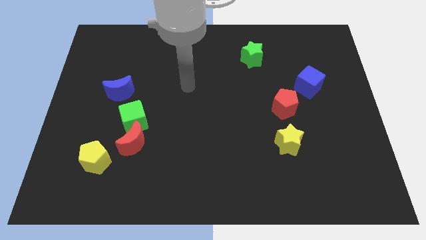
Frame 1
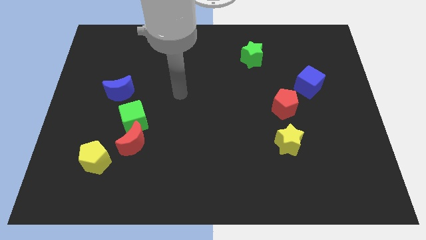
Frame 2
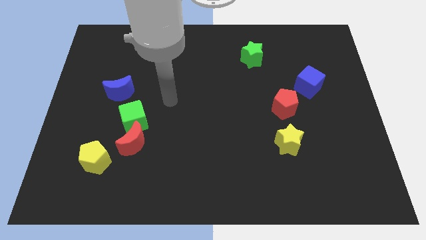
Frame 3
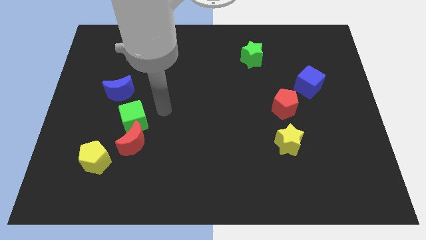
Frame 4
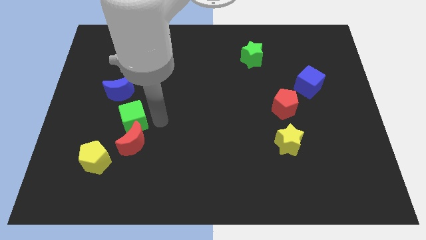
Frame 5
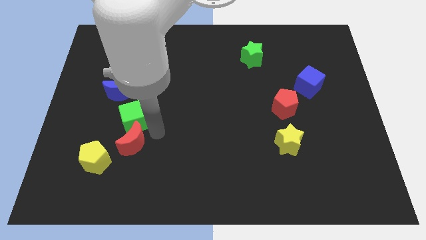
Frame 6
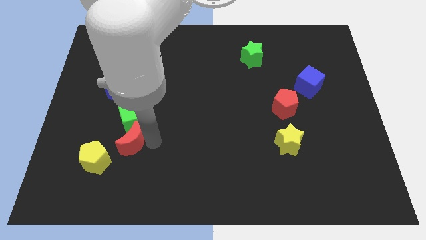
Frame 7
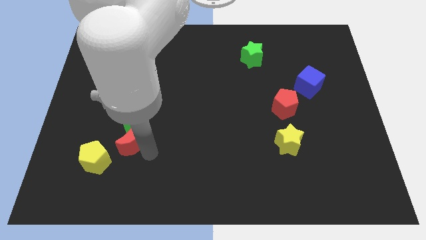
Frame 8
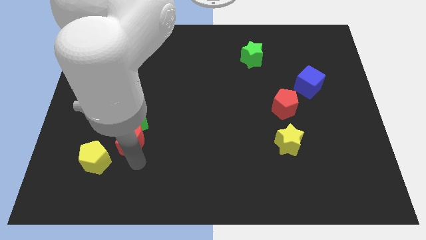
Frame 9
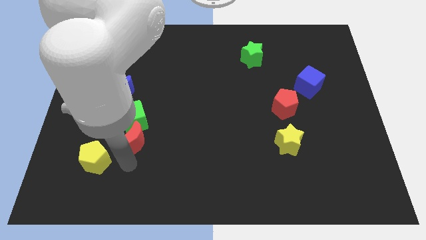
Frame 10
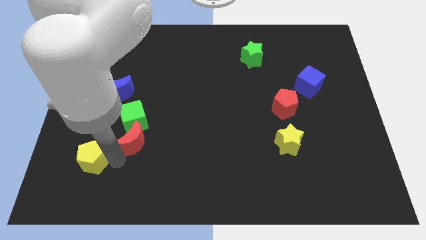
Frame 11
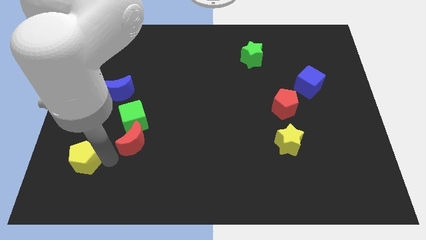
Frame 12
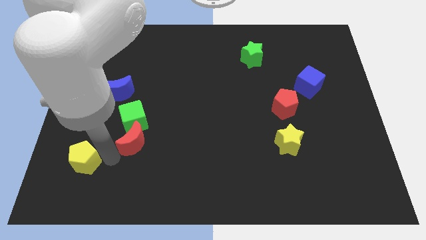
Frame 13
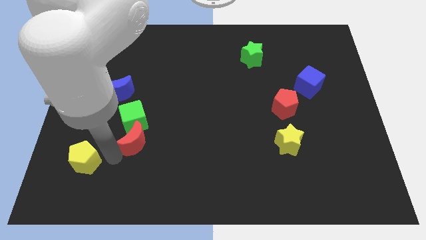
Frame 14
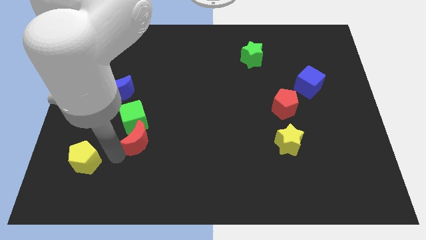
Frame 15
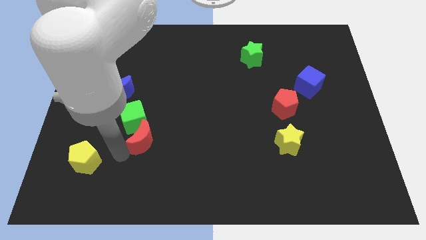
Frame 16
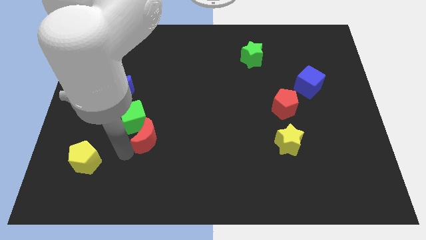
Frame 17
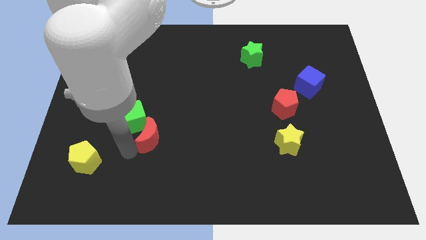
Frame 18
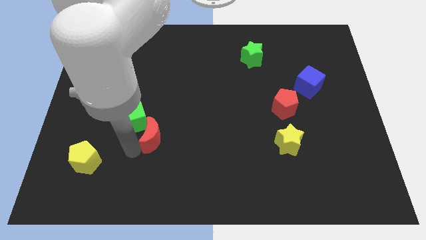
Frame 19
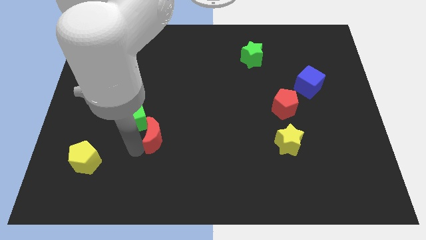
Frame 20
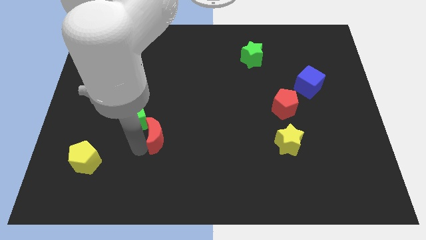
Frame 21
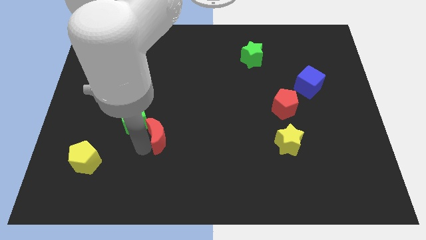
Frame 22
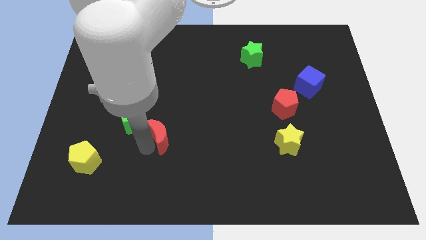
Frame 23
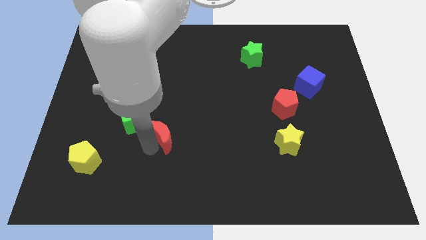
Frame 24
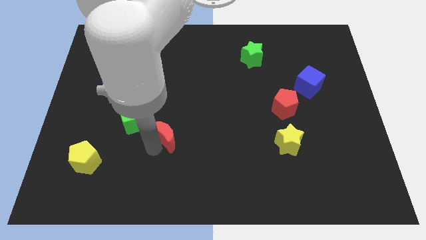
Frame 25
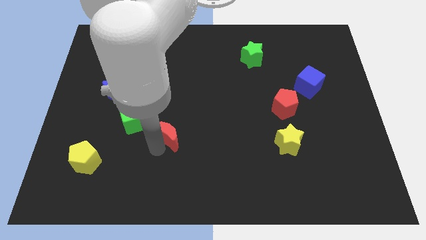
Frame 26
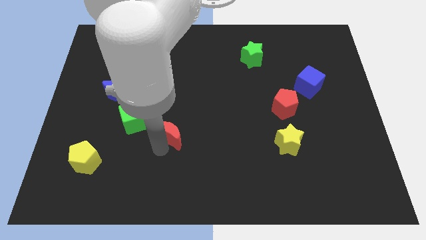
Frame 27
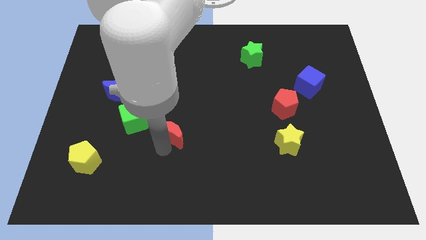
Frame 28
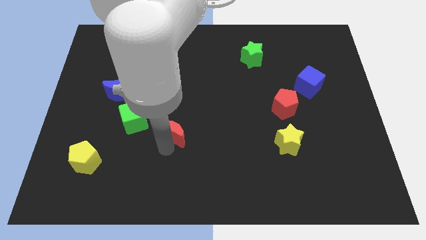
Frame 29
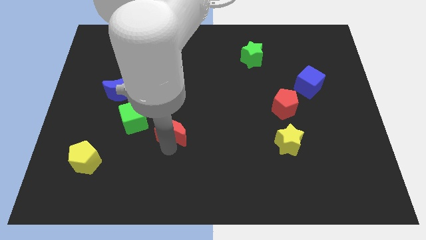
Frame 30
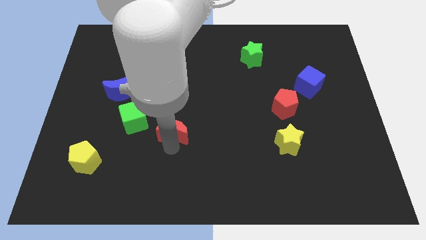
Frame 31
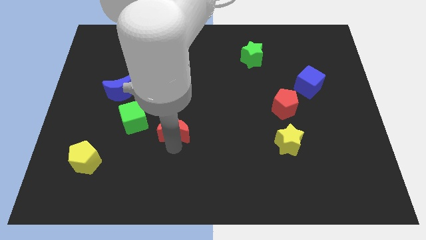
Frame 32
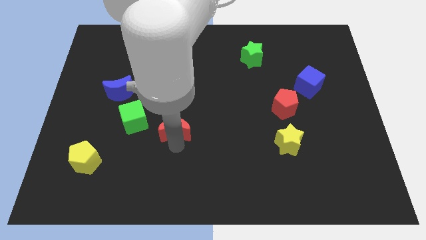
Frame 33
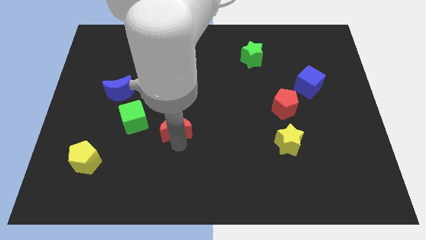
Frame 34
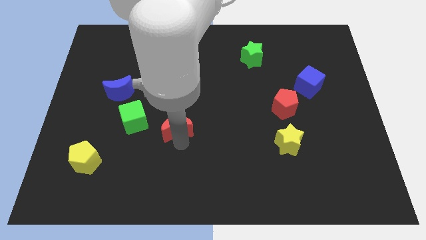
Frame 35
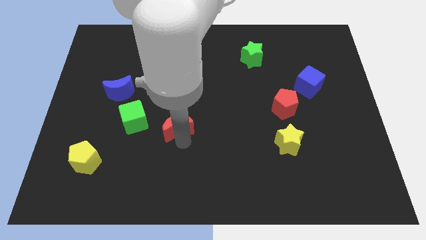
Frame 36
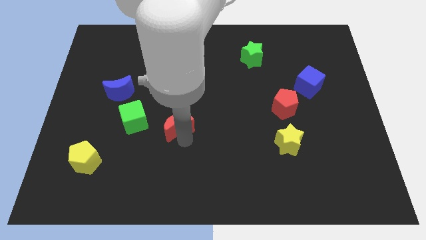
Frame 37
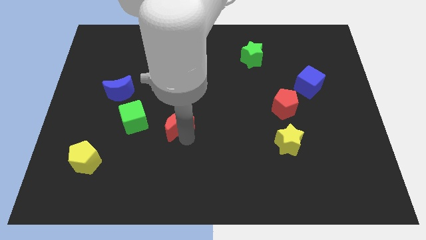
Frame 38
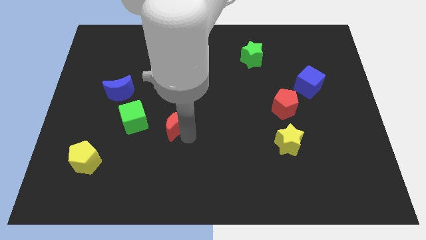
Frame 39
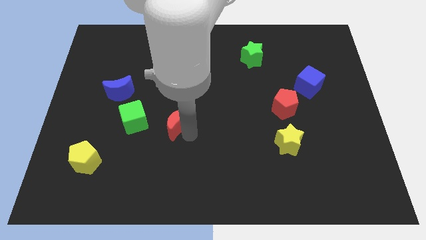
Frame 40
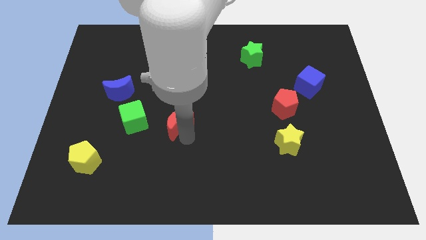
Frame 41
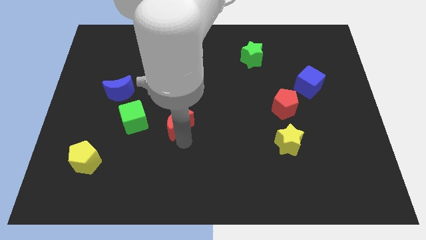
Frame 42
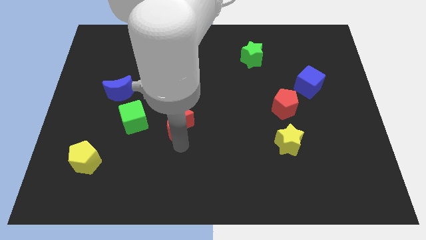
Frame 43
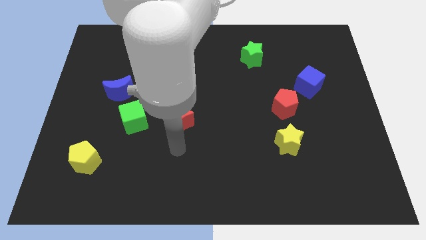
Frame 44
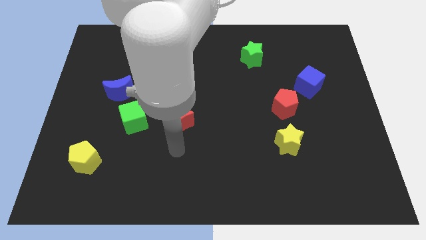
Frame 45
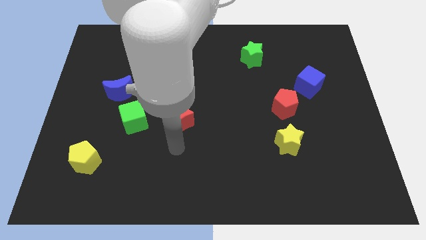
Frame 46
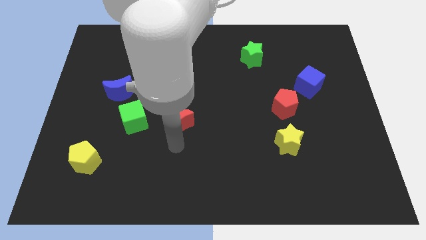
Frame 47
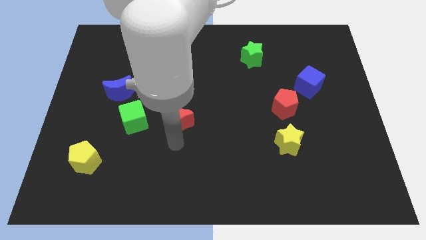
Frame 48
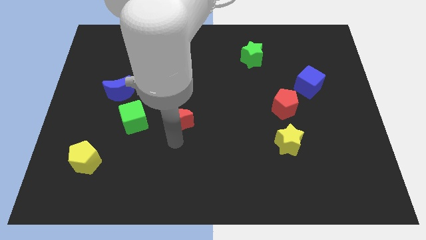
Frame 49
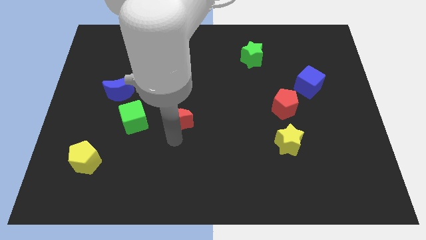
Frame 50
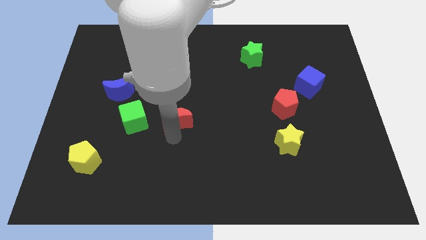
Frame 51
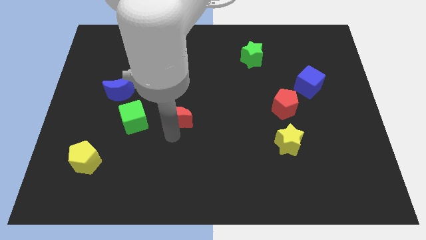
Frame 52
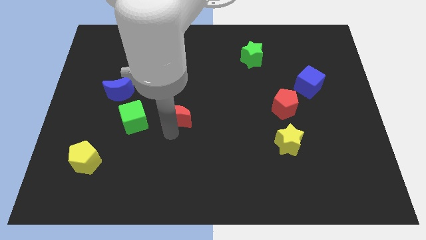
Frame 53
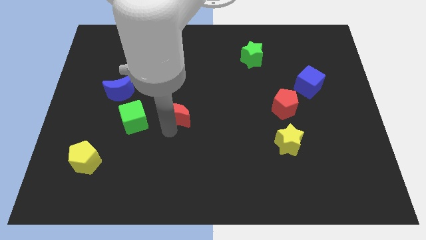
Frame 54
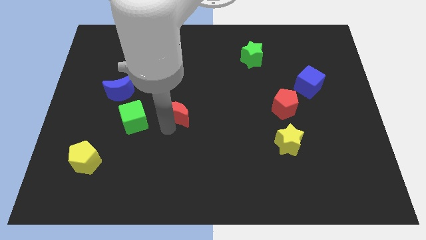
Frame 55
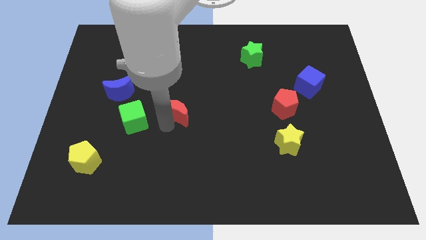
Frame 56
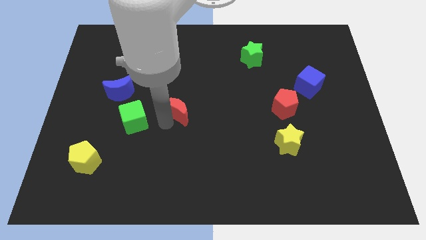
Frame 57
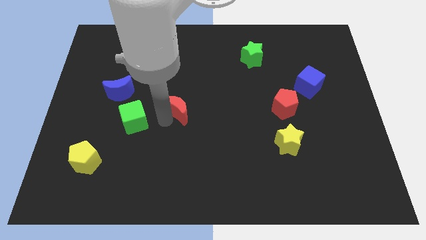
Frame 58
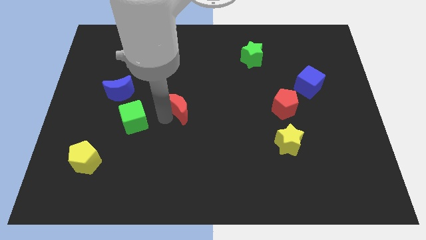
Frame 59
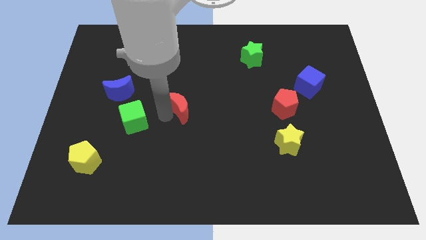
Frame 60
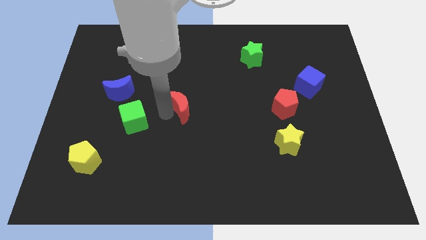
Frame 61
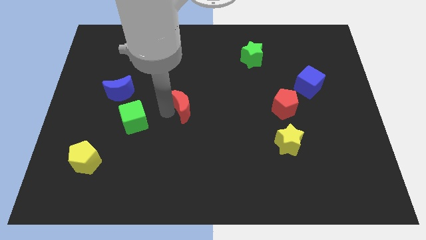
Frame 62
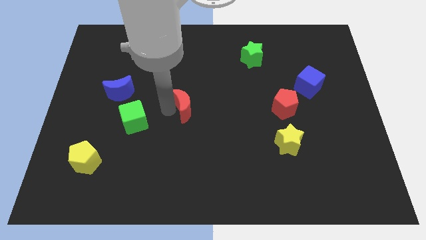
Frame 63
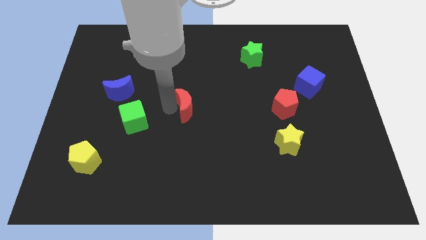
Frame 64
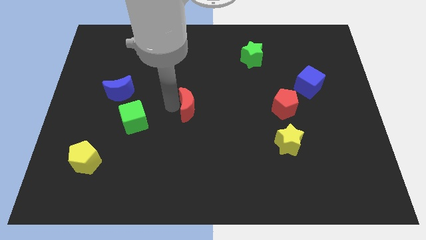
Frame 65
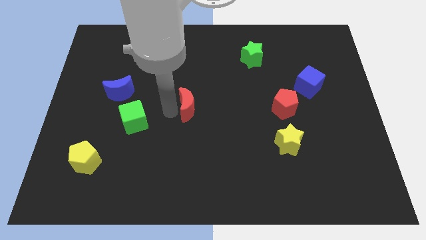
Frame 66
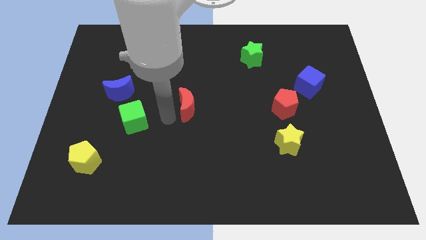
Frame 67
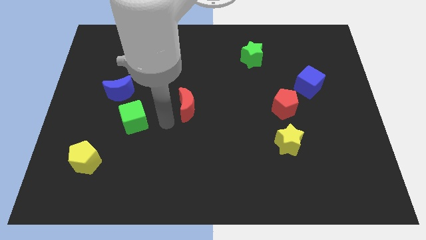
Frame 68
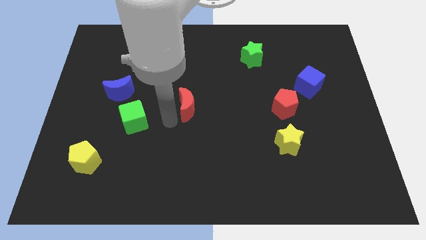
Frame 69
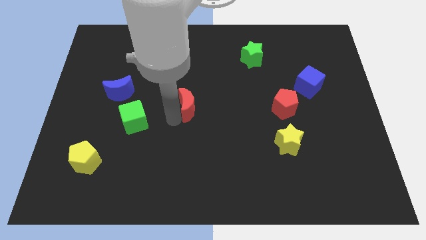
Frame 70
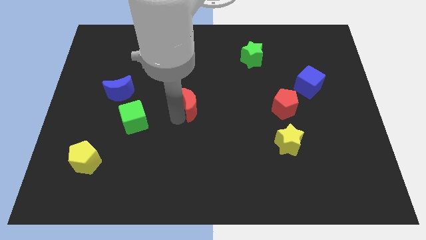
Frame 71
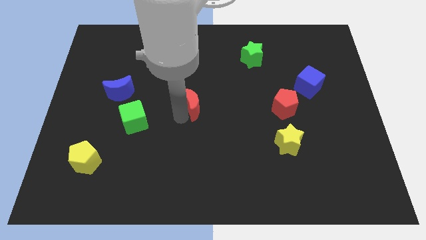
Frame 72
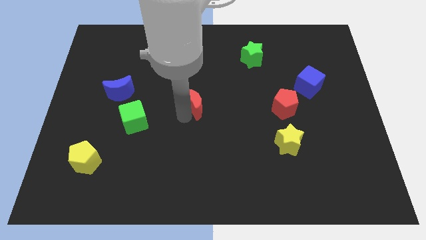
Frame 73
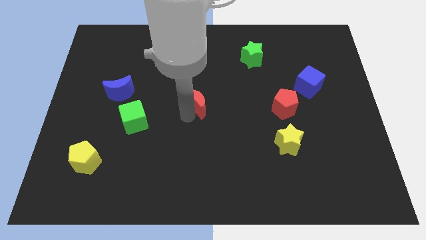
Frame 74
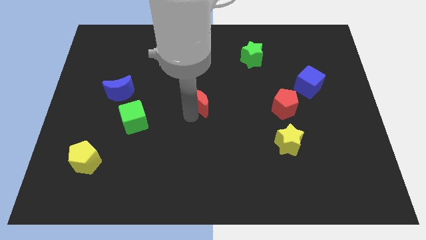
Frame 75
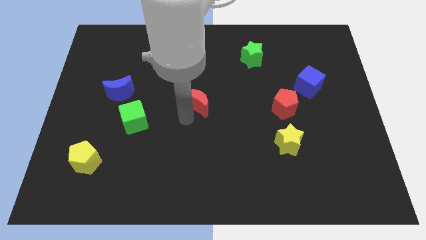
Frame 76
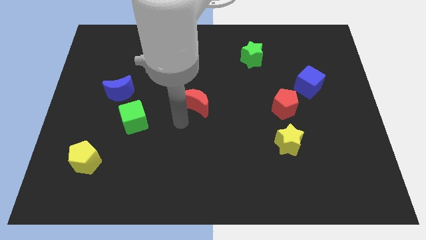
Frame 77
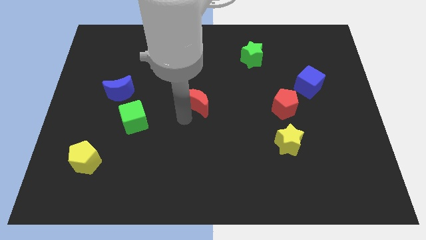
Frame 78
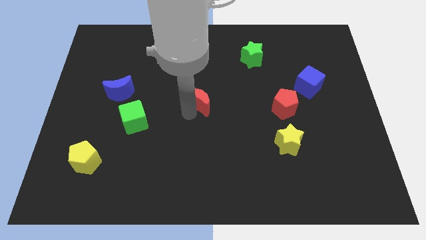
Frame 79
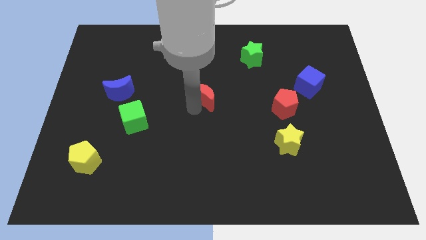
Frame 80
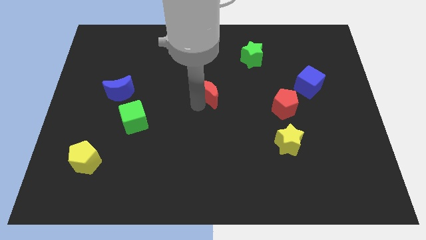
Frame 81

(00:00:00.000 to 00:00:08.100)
push the red moon diagonally upwards and to the right

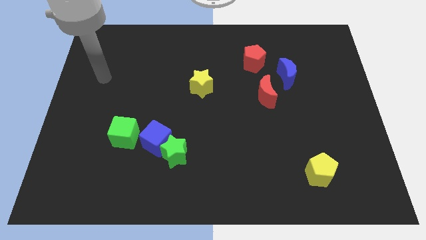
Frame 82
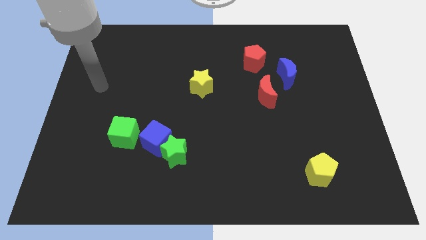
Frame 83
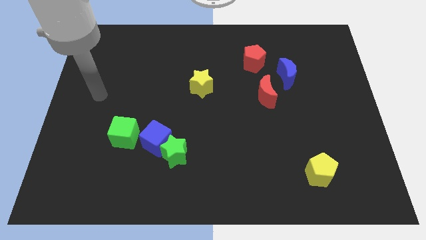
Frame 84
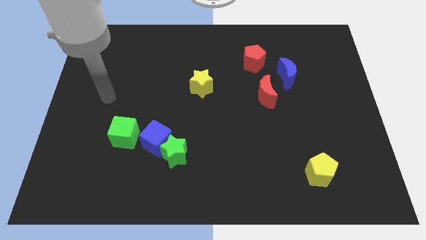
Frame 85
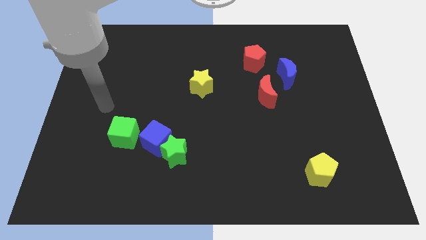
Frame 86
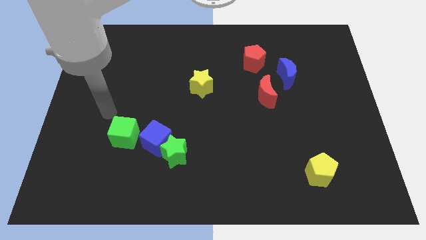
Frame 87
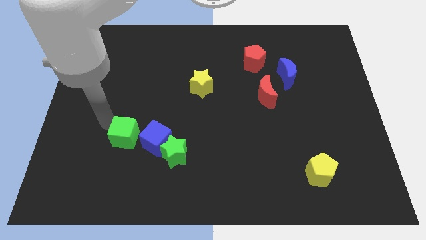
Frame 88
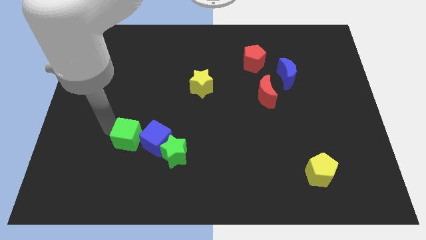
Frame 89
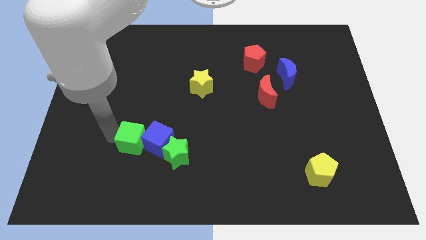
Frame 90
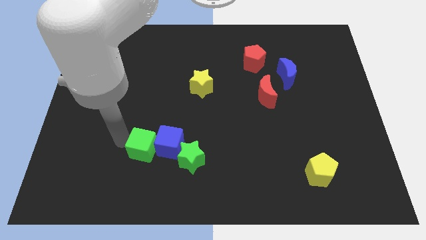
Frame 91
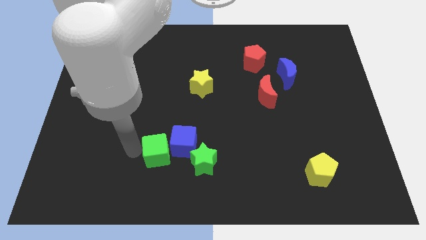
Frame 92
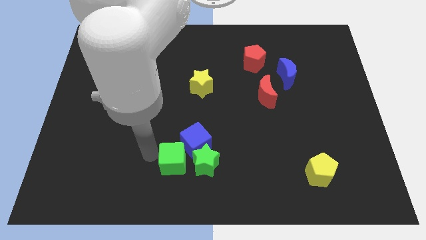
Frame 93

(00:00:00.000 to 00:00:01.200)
slide the blue cube a bit to the right
